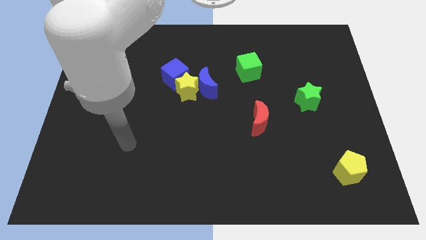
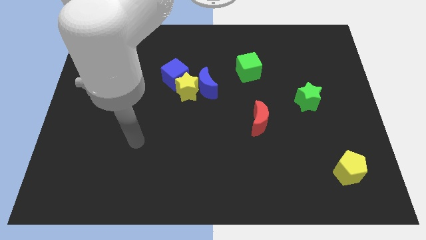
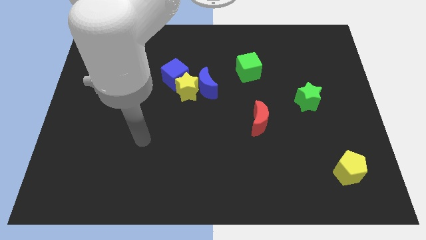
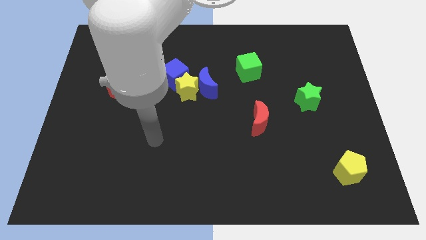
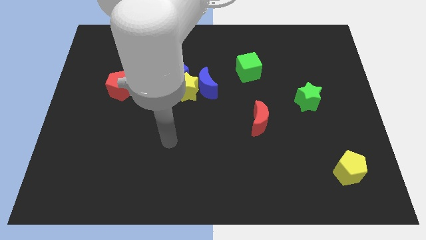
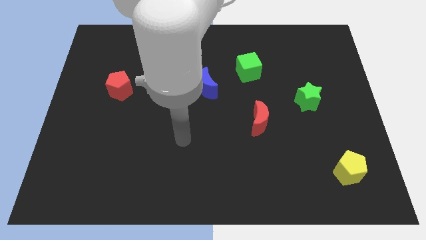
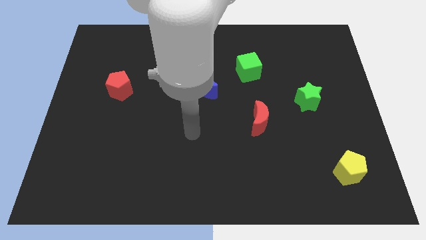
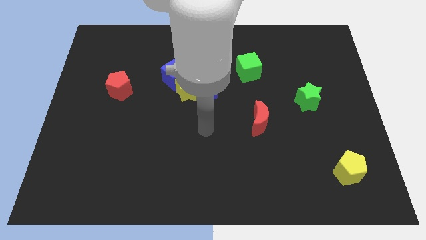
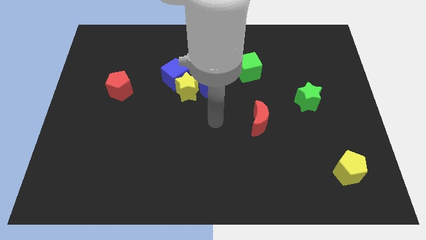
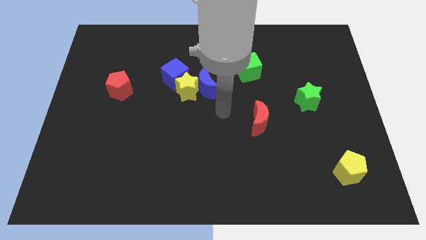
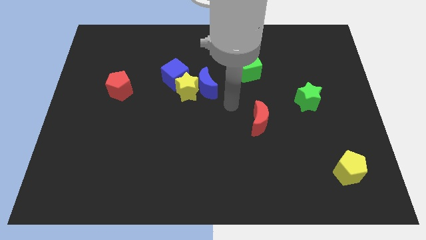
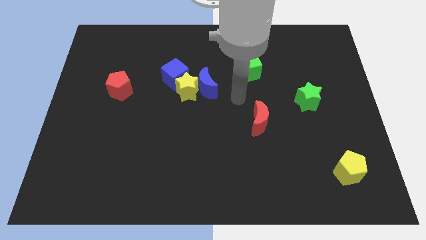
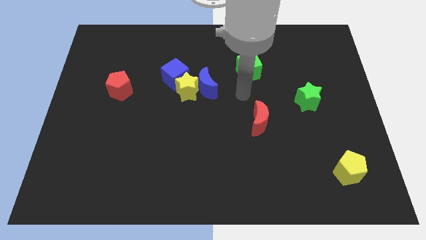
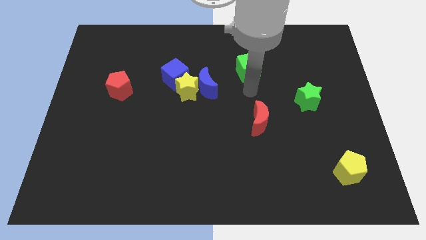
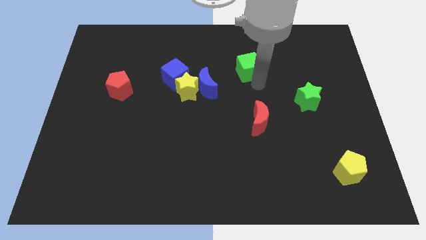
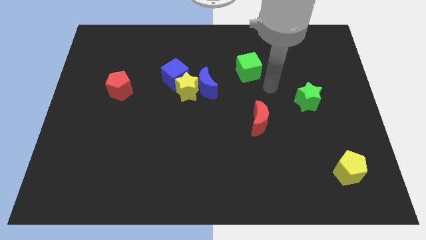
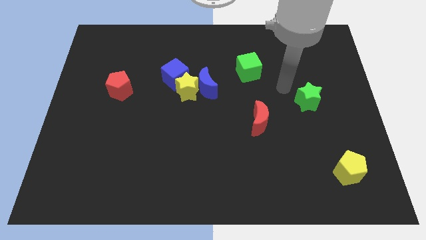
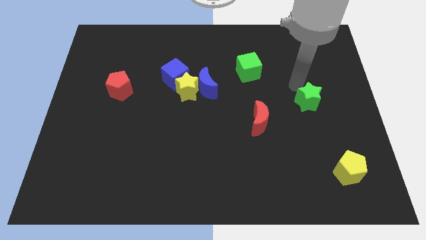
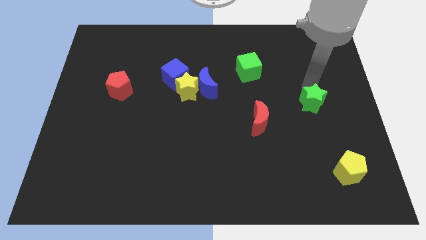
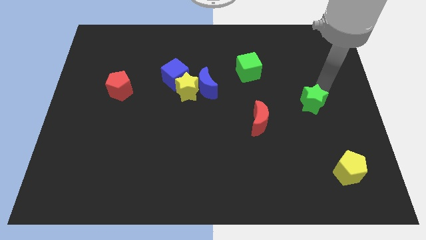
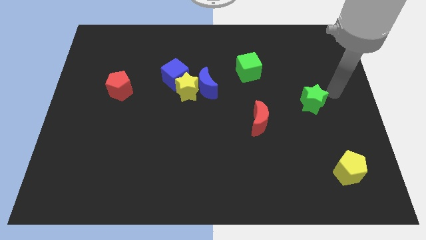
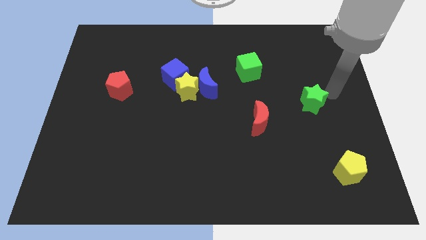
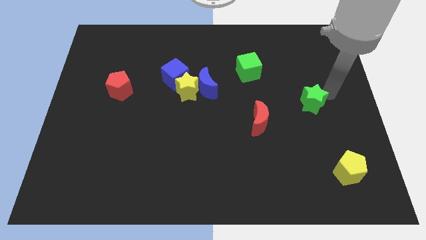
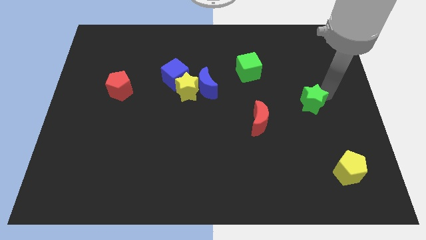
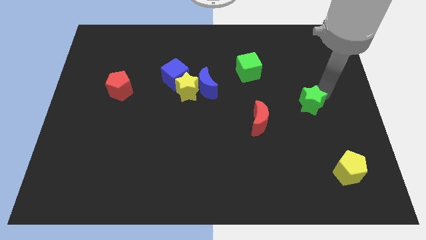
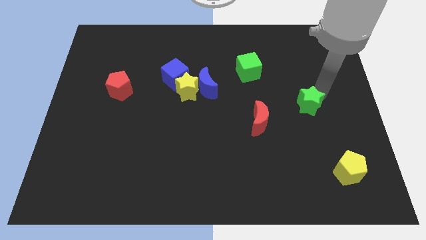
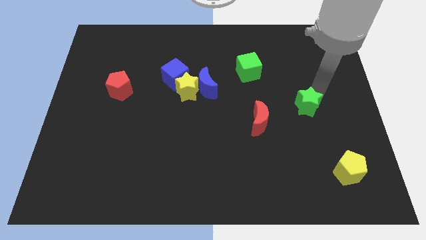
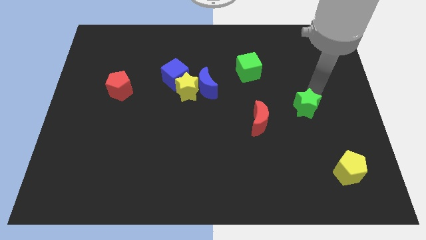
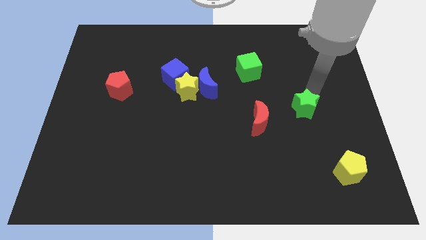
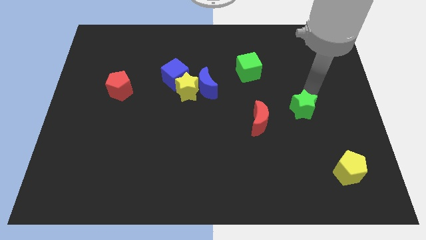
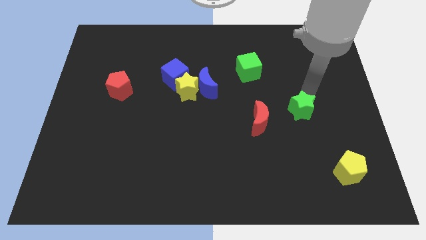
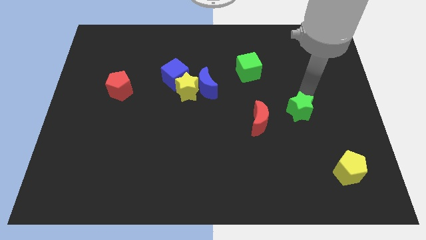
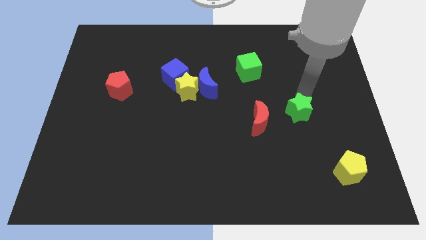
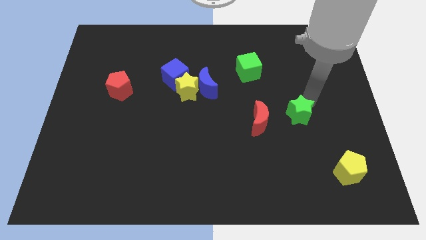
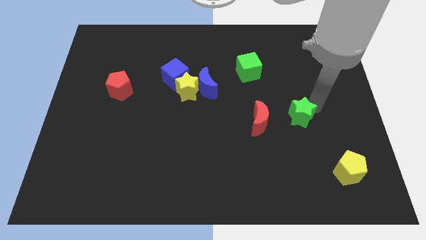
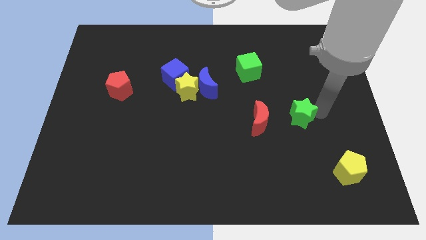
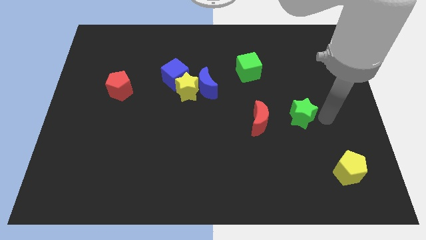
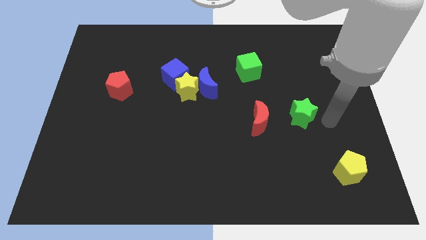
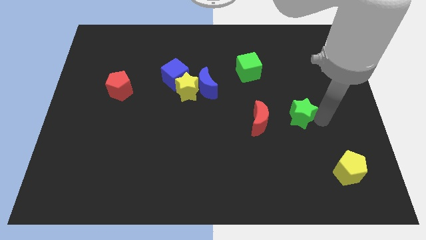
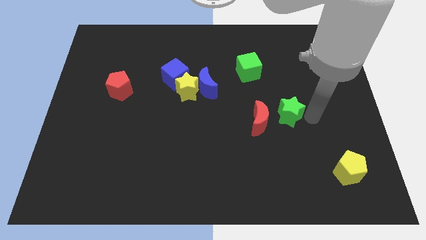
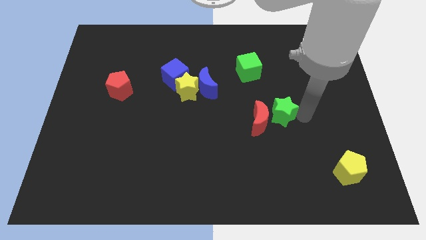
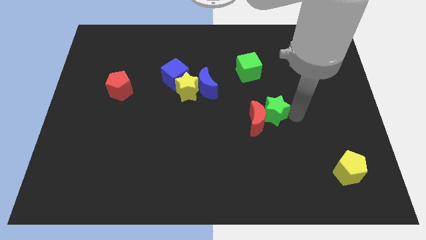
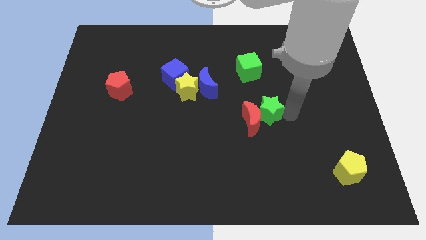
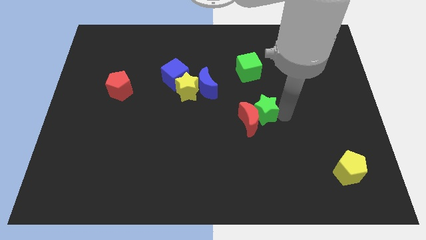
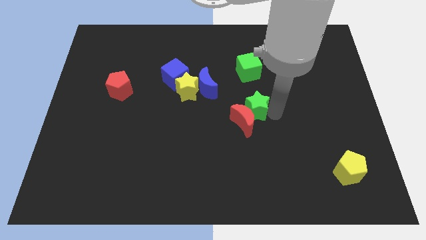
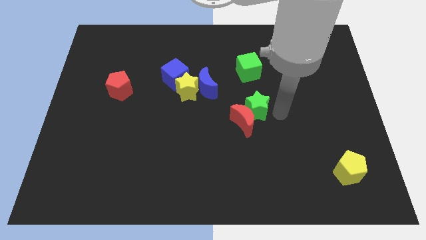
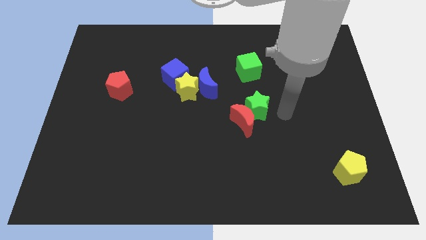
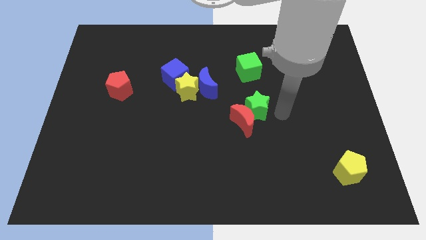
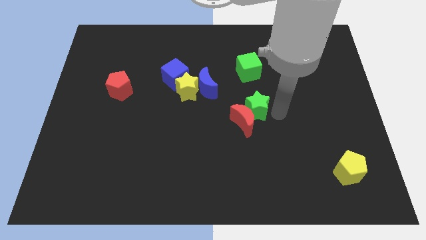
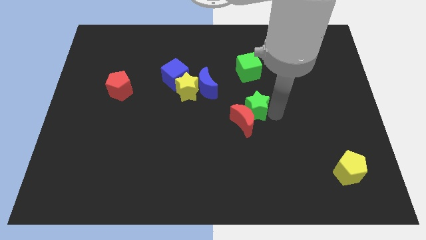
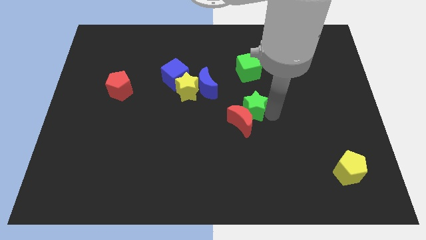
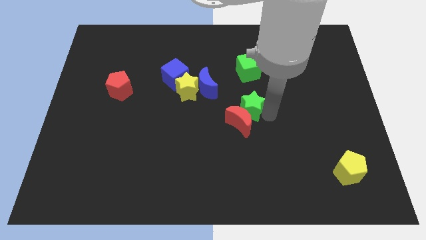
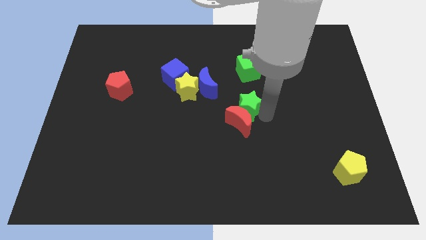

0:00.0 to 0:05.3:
move the green star to the bottom right side of the blue moon

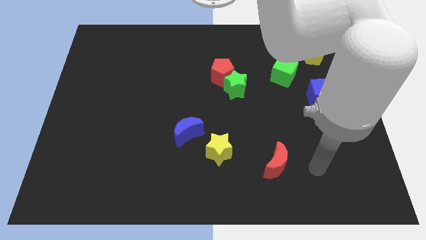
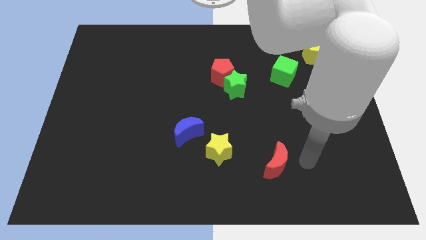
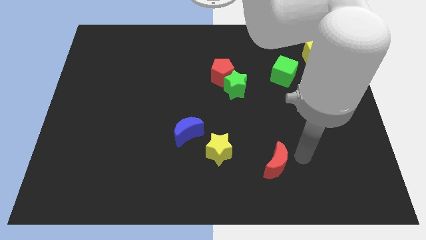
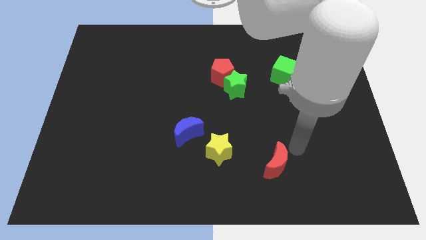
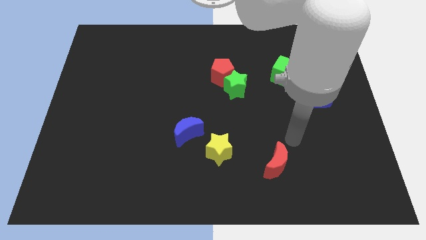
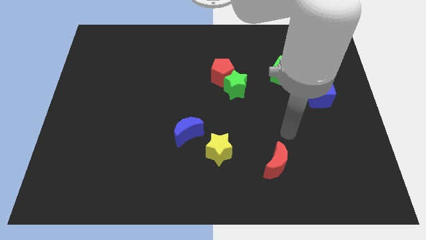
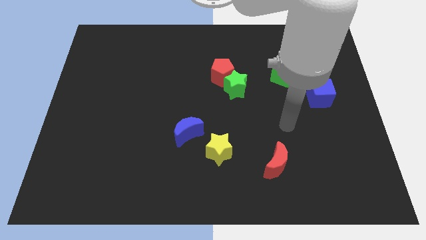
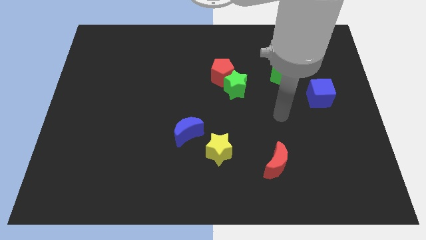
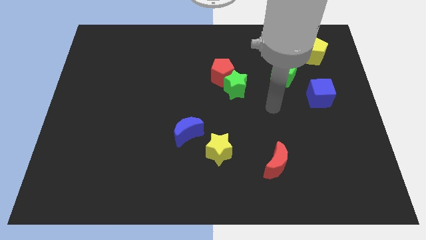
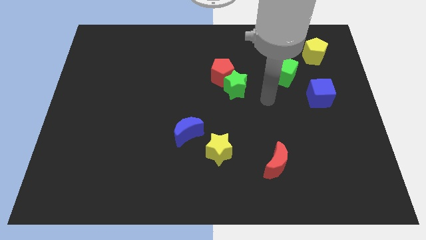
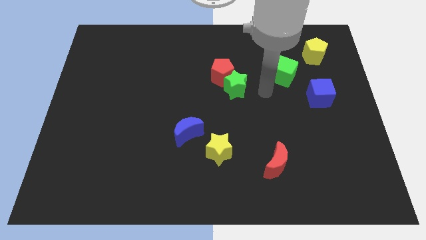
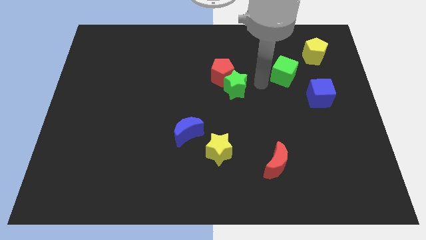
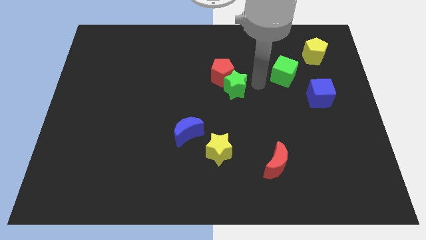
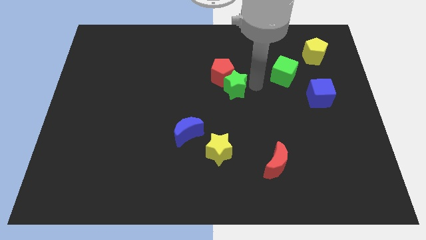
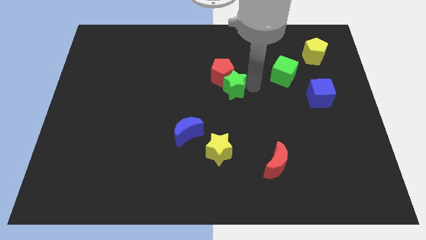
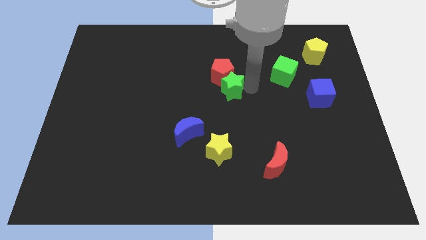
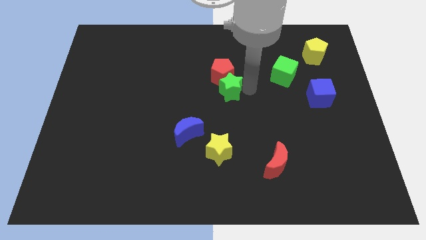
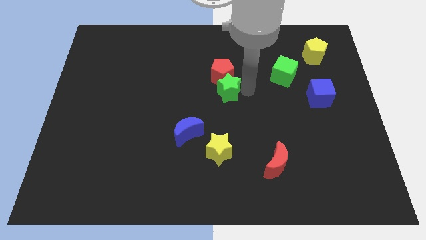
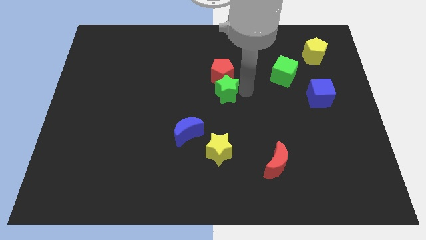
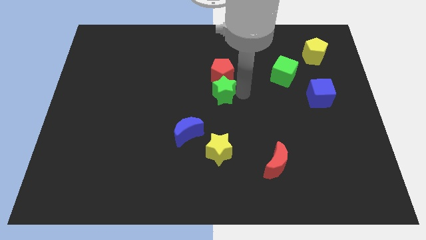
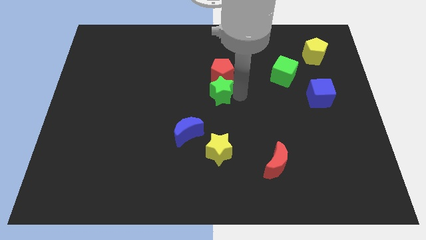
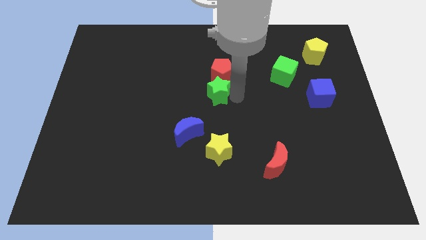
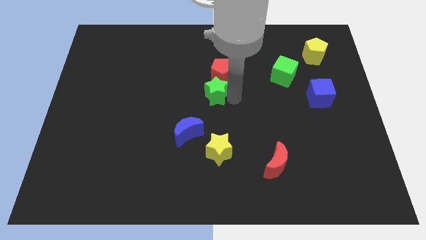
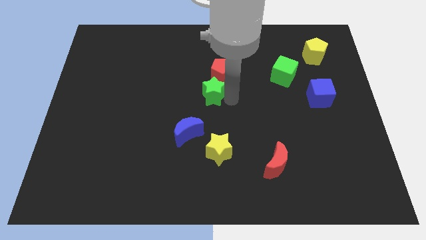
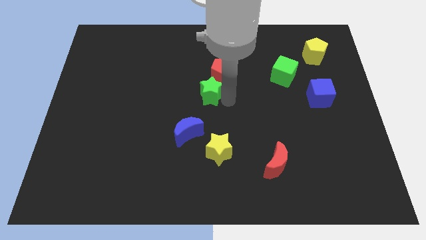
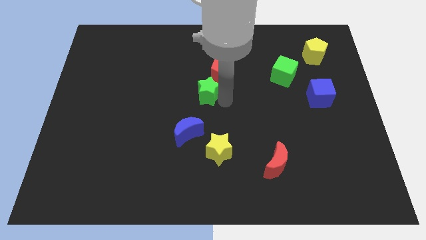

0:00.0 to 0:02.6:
slide the green star above the blue moon
